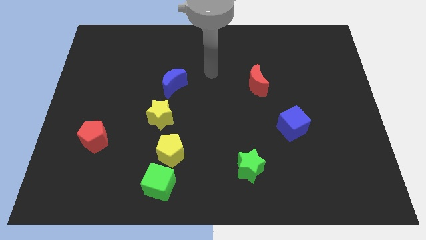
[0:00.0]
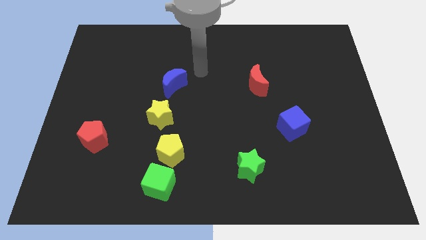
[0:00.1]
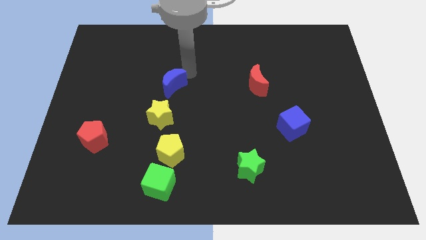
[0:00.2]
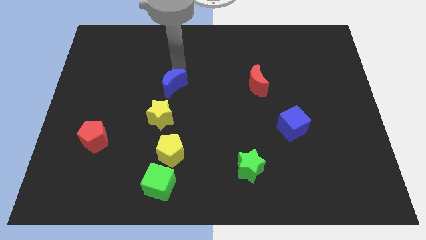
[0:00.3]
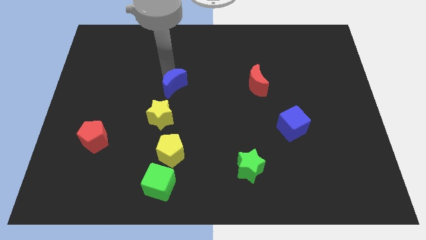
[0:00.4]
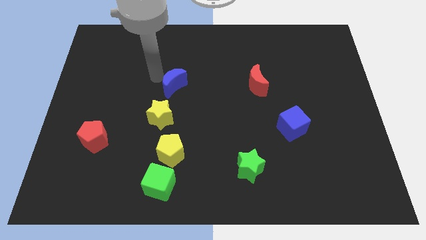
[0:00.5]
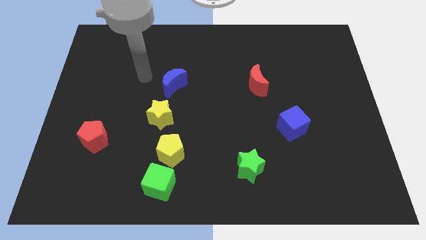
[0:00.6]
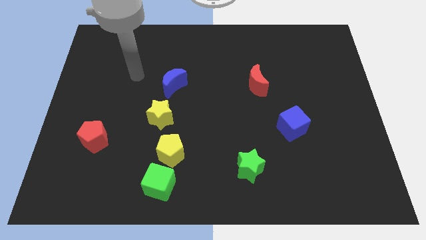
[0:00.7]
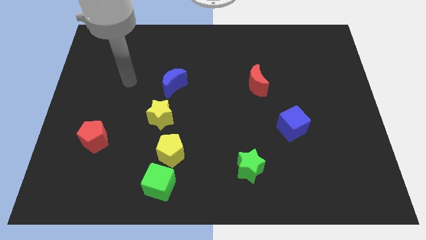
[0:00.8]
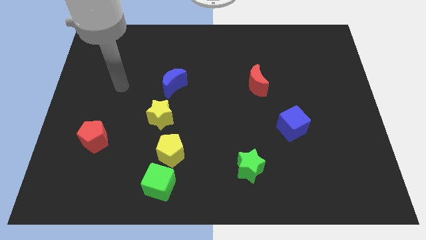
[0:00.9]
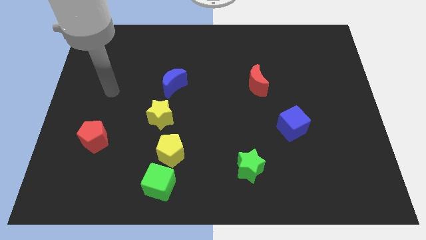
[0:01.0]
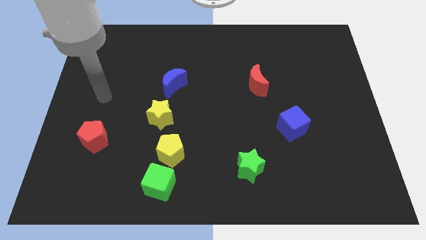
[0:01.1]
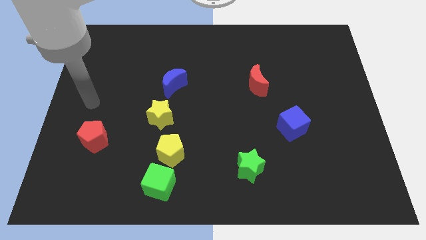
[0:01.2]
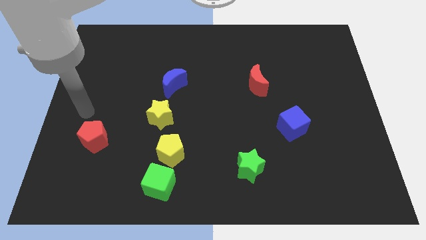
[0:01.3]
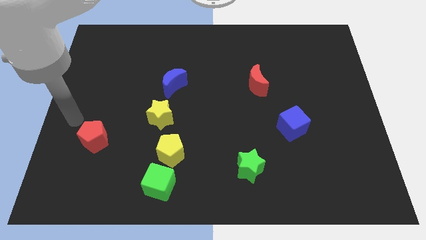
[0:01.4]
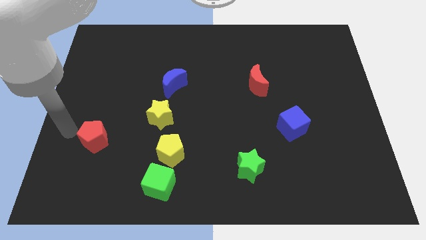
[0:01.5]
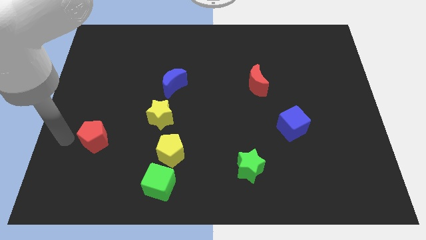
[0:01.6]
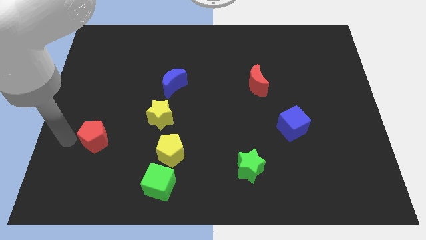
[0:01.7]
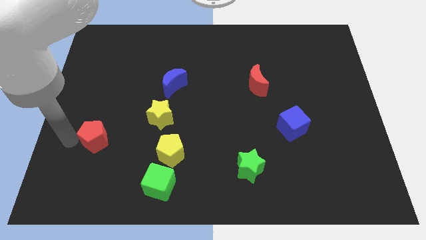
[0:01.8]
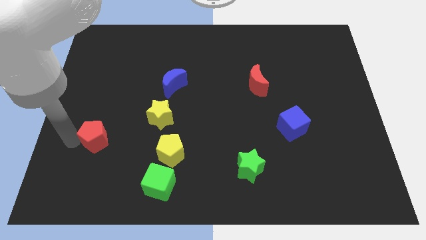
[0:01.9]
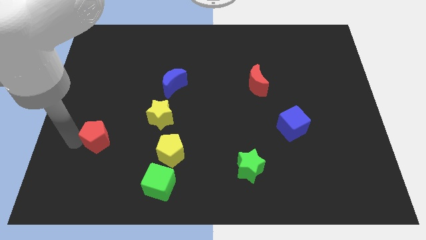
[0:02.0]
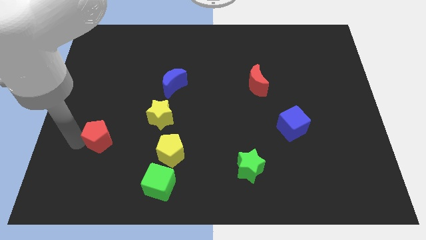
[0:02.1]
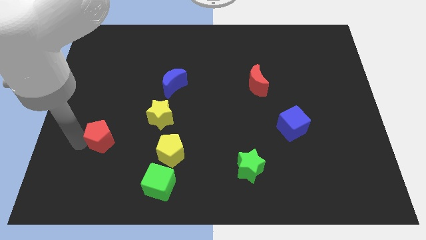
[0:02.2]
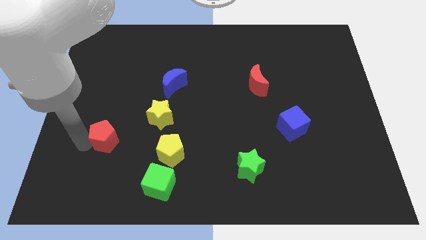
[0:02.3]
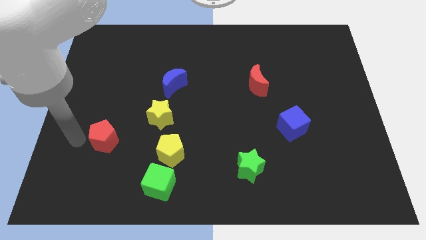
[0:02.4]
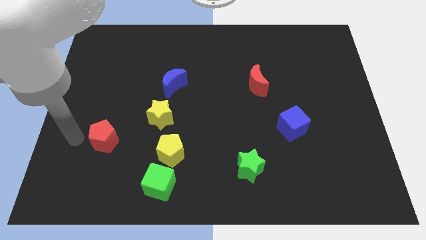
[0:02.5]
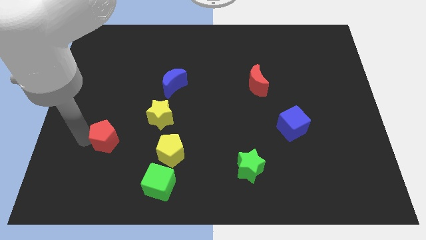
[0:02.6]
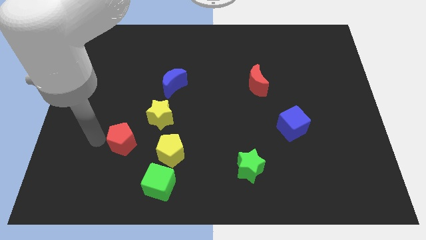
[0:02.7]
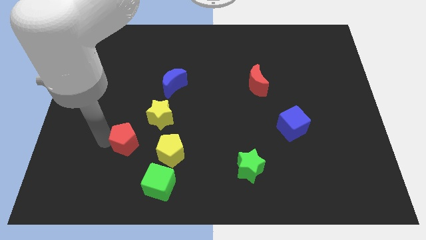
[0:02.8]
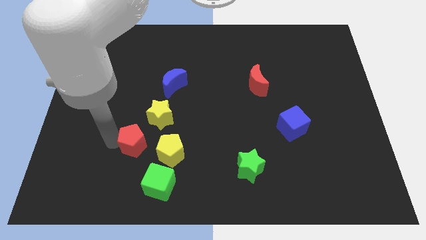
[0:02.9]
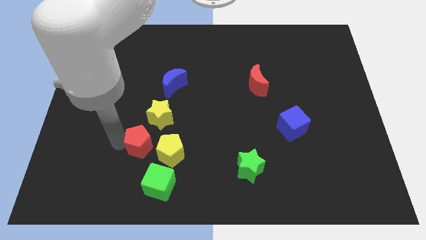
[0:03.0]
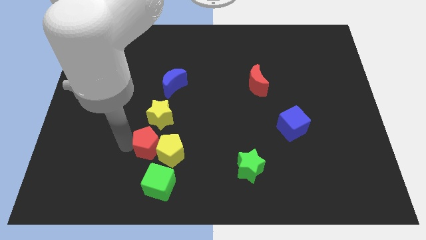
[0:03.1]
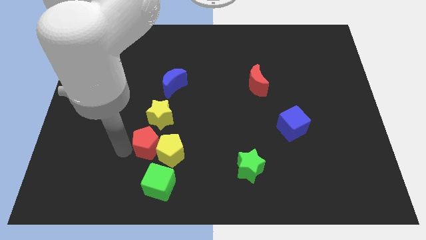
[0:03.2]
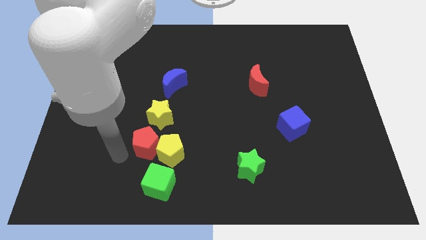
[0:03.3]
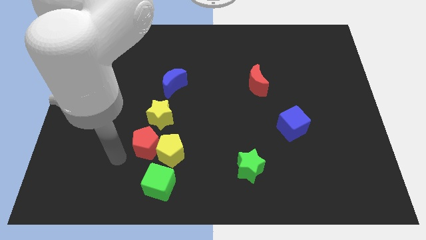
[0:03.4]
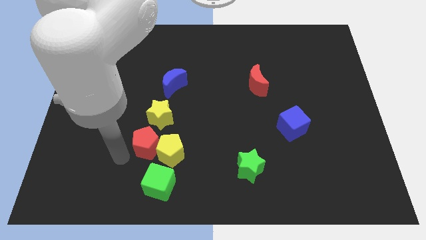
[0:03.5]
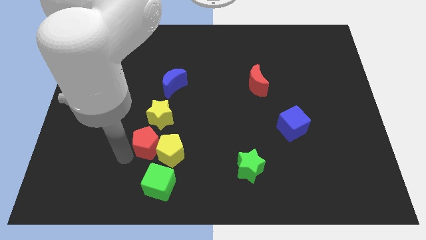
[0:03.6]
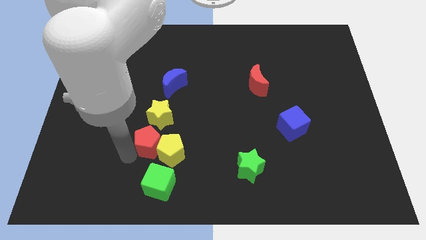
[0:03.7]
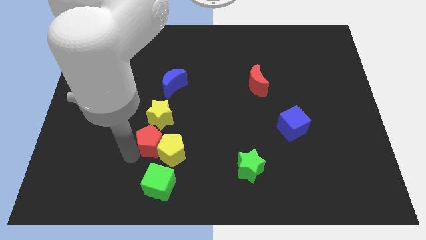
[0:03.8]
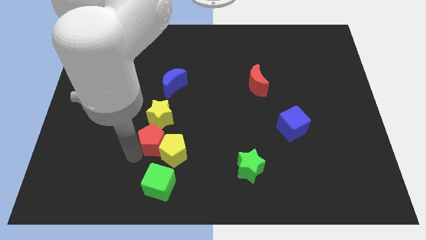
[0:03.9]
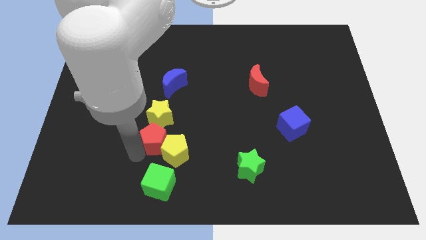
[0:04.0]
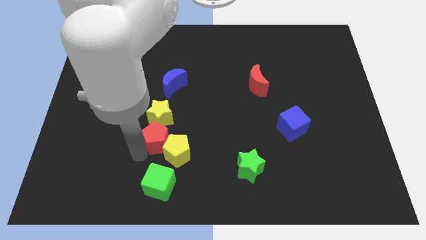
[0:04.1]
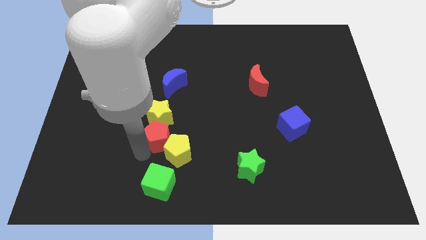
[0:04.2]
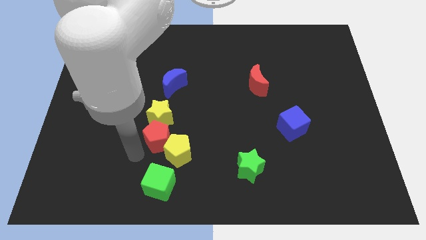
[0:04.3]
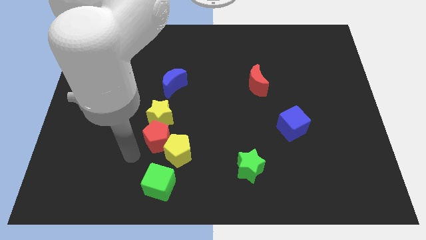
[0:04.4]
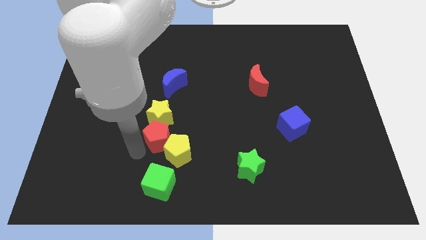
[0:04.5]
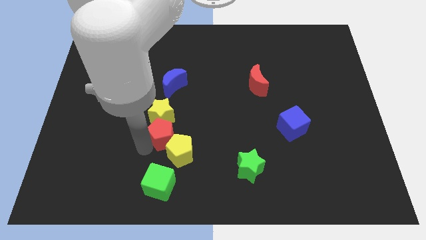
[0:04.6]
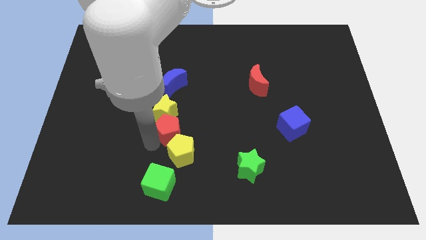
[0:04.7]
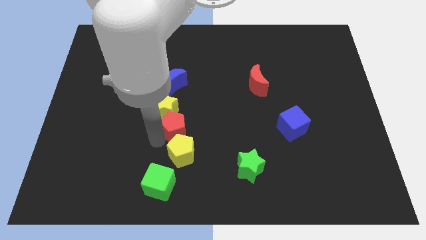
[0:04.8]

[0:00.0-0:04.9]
put the red pentagon to the middle

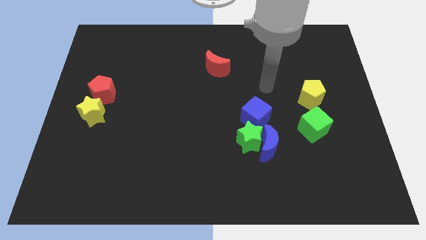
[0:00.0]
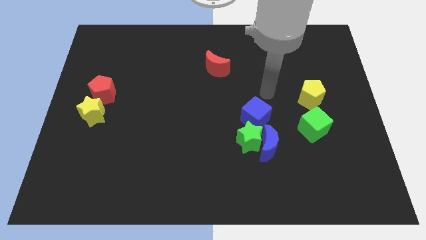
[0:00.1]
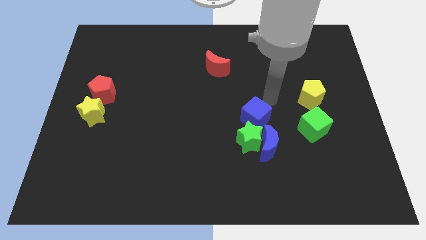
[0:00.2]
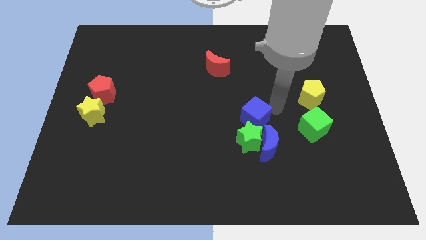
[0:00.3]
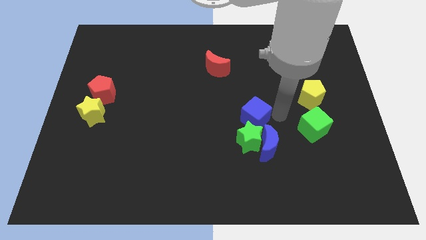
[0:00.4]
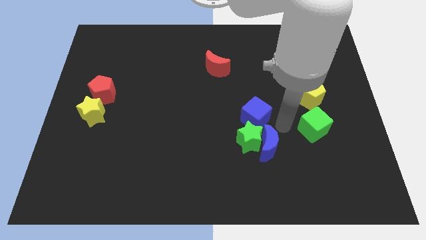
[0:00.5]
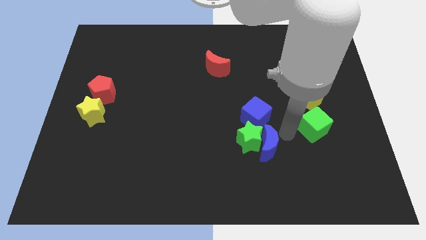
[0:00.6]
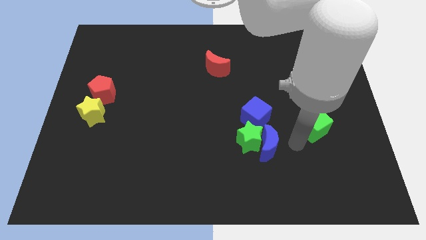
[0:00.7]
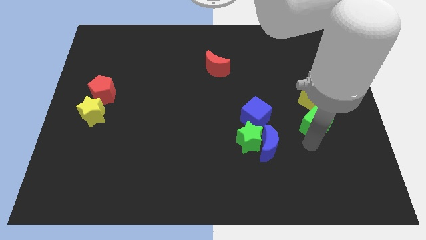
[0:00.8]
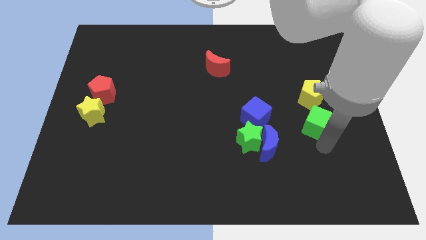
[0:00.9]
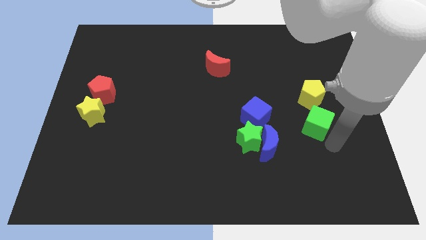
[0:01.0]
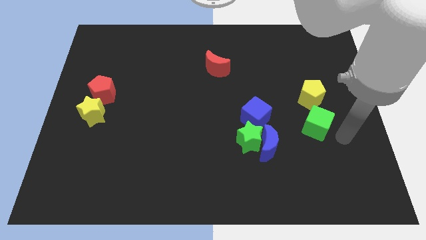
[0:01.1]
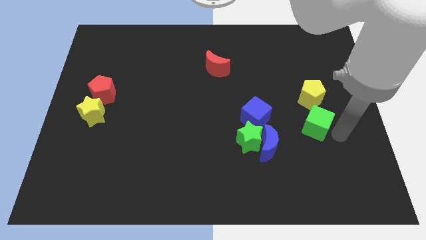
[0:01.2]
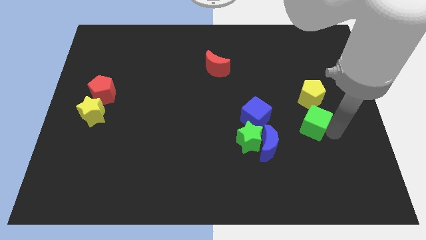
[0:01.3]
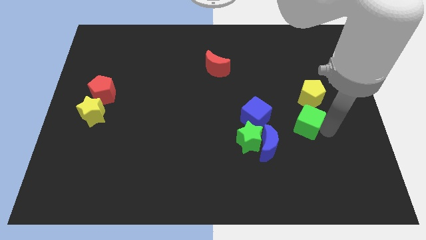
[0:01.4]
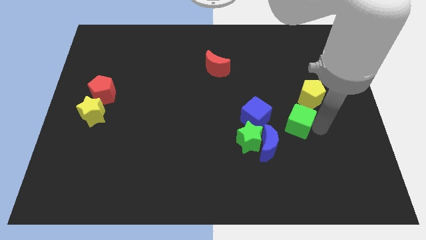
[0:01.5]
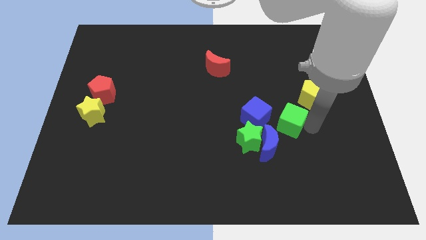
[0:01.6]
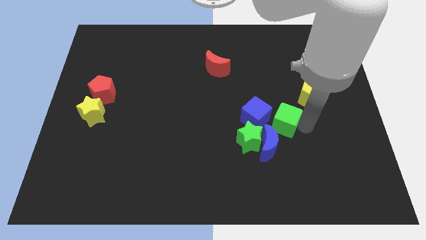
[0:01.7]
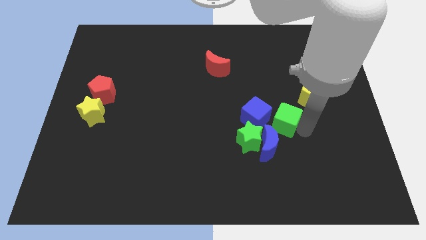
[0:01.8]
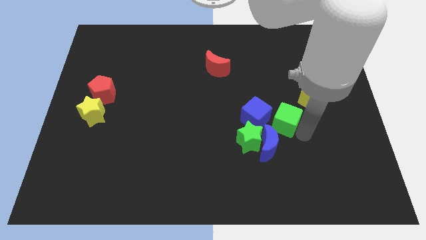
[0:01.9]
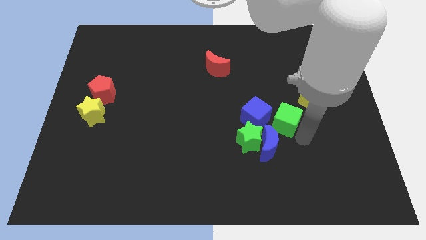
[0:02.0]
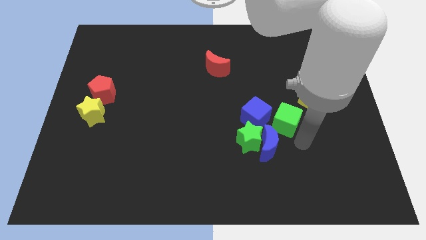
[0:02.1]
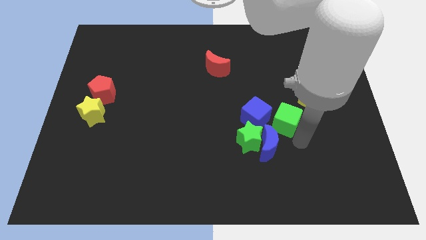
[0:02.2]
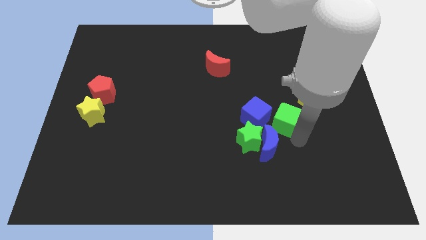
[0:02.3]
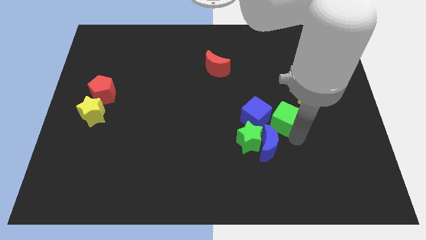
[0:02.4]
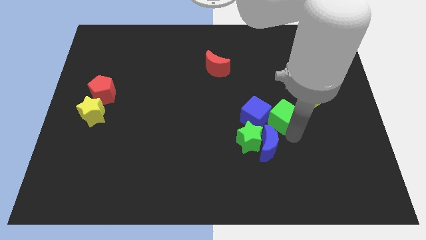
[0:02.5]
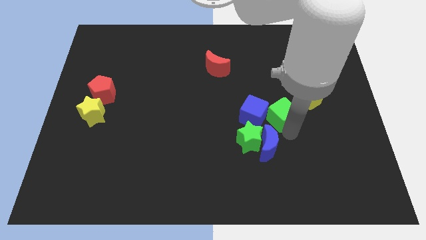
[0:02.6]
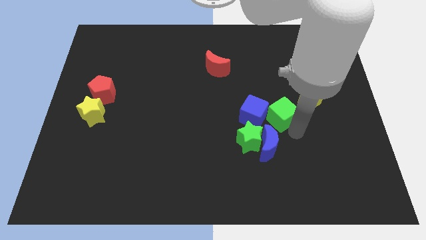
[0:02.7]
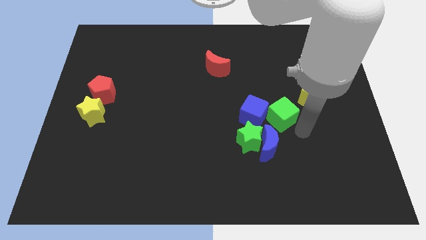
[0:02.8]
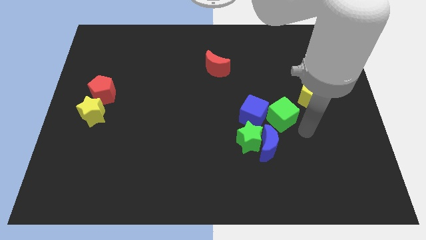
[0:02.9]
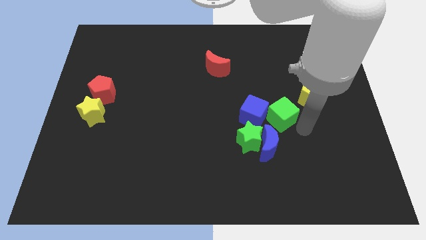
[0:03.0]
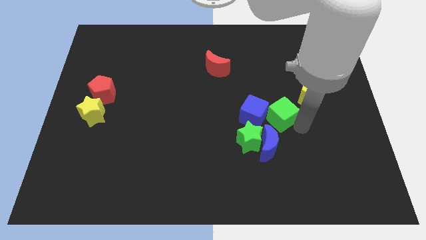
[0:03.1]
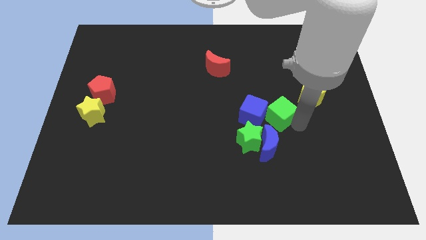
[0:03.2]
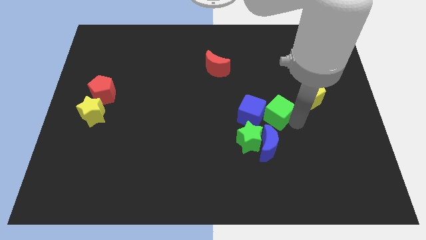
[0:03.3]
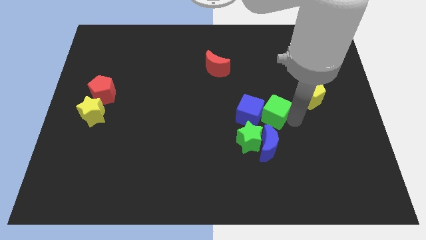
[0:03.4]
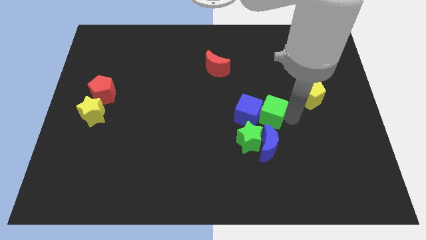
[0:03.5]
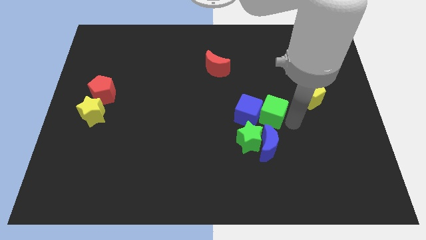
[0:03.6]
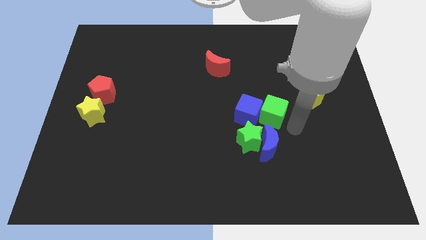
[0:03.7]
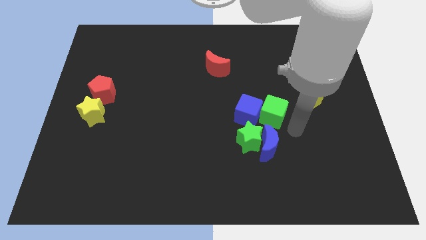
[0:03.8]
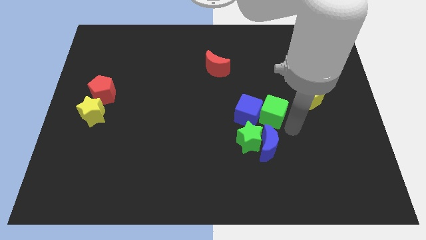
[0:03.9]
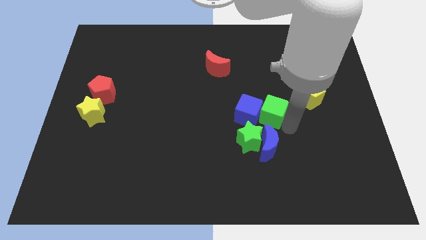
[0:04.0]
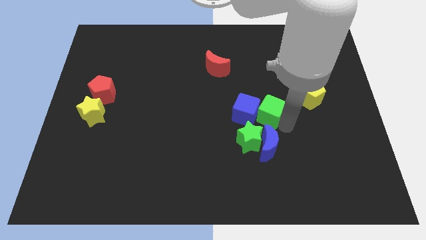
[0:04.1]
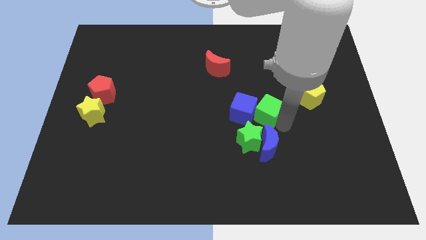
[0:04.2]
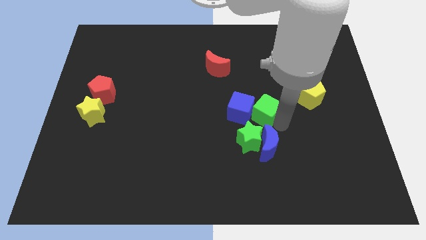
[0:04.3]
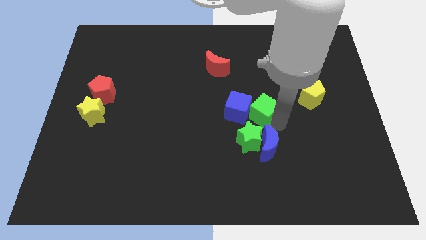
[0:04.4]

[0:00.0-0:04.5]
put the green cube to the center of the board
